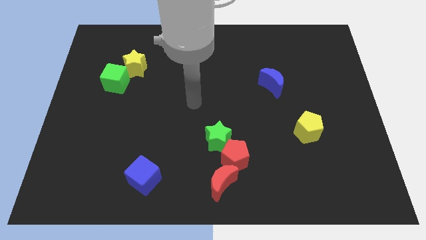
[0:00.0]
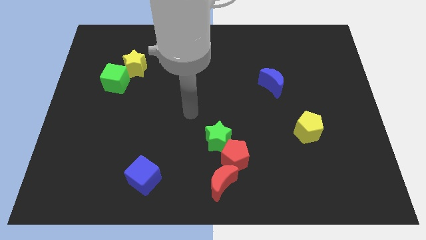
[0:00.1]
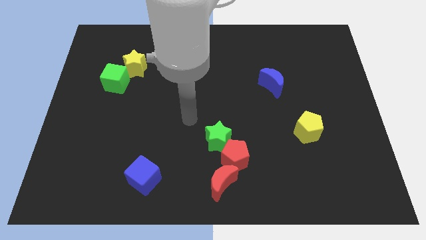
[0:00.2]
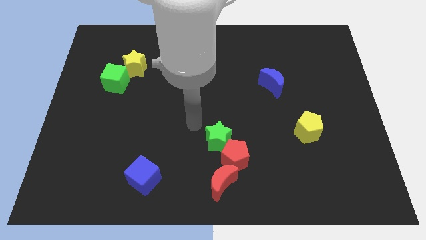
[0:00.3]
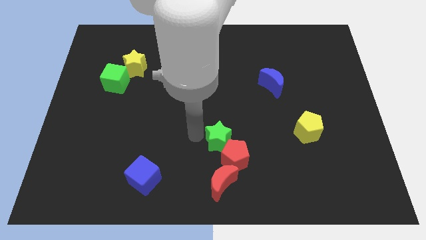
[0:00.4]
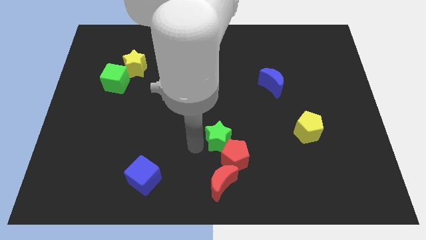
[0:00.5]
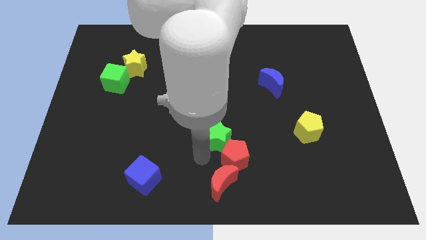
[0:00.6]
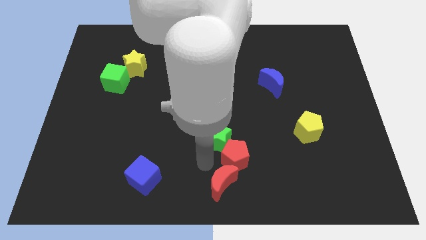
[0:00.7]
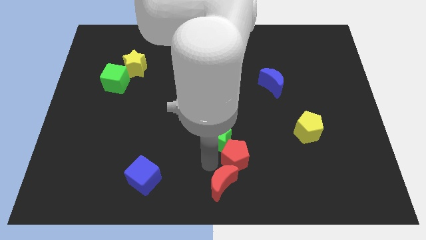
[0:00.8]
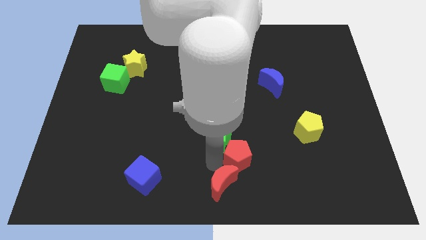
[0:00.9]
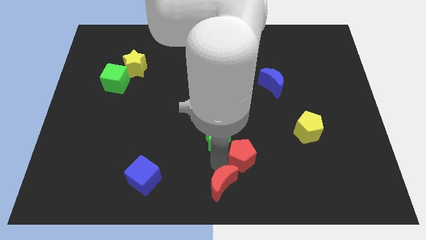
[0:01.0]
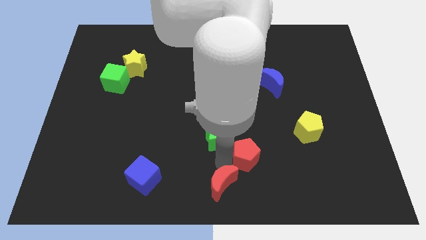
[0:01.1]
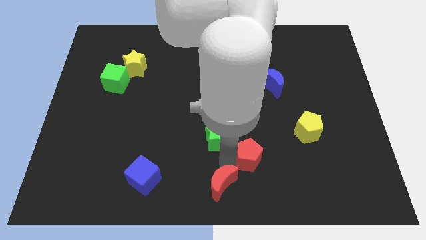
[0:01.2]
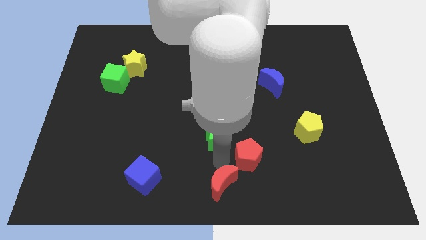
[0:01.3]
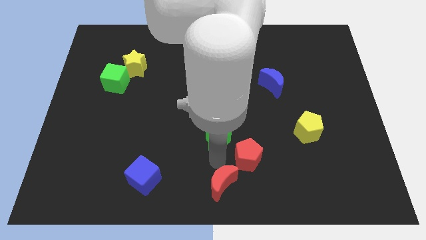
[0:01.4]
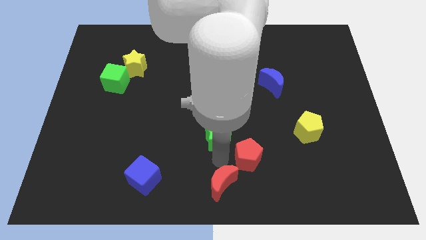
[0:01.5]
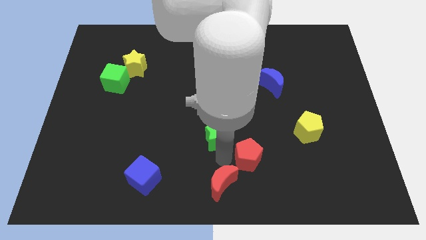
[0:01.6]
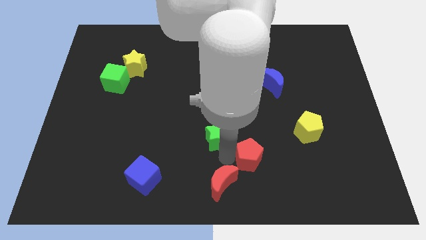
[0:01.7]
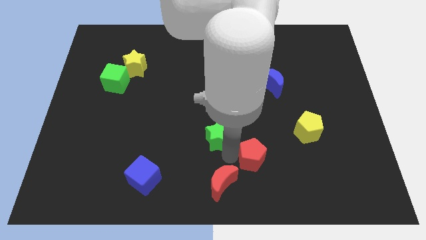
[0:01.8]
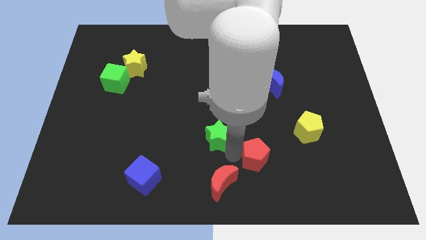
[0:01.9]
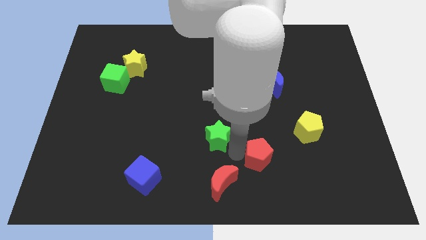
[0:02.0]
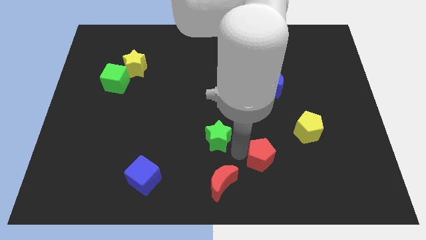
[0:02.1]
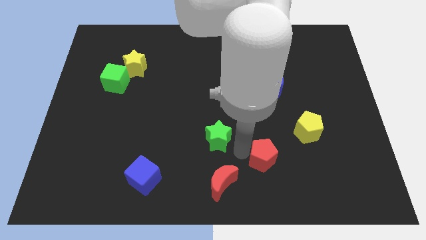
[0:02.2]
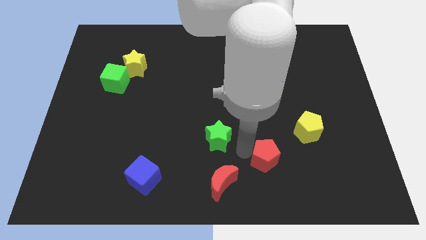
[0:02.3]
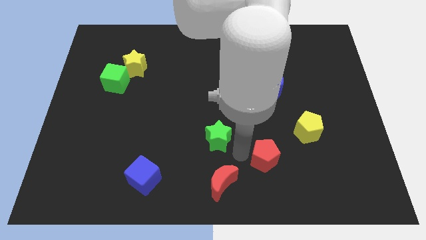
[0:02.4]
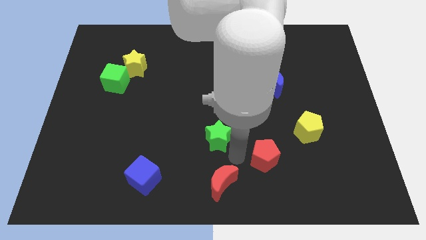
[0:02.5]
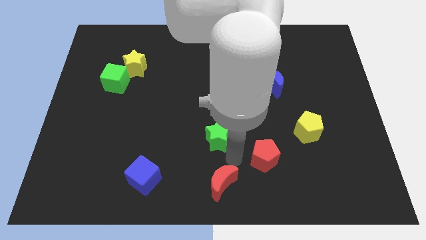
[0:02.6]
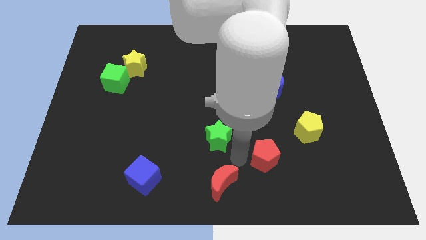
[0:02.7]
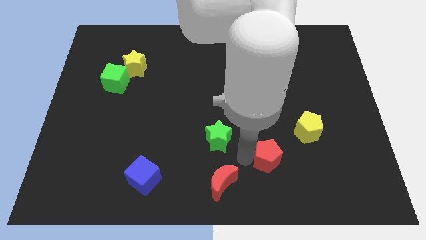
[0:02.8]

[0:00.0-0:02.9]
move the red pentagon away from the green star and red moon

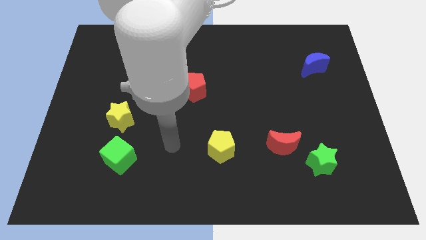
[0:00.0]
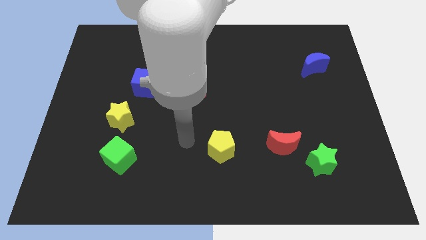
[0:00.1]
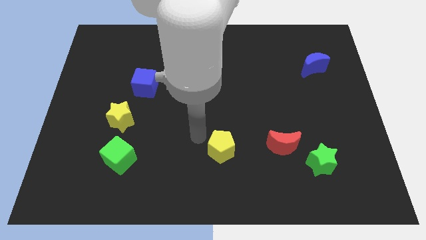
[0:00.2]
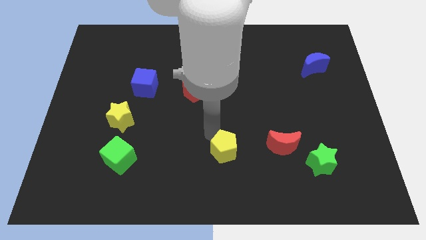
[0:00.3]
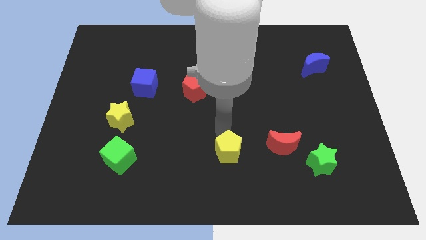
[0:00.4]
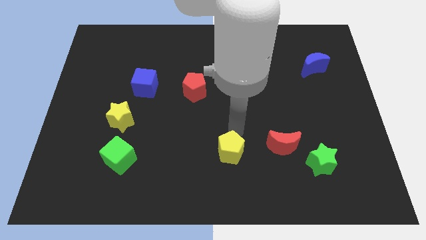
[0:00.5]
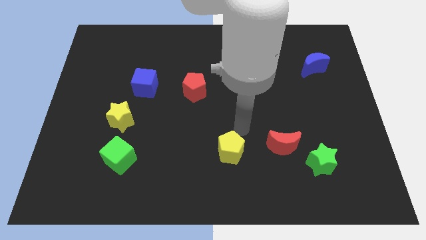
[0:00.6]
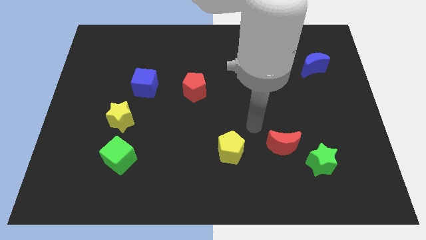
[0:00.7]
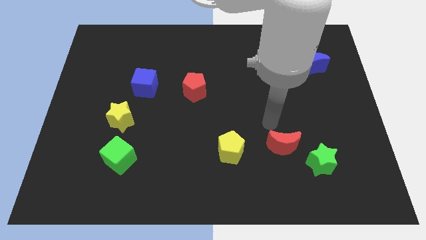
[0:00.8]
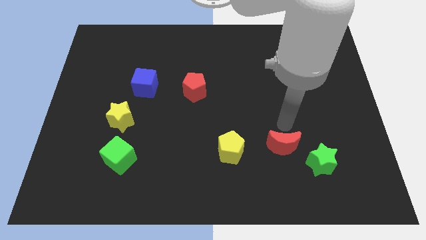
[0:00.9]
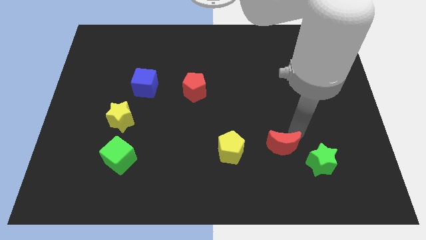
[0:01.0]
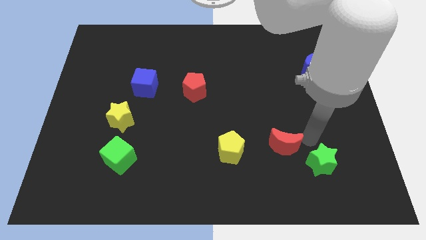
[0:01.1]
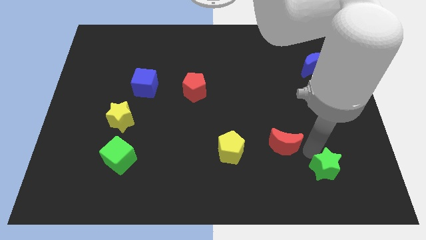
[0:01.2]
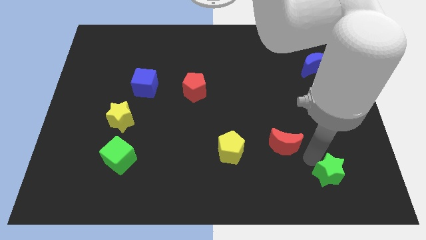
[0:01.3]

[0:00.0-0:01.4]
separate the red moon from the green star

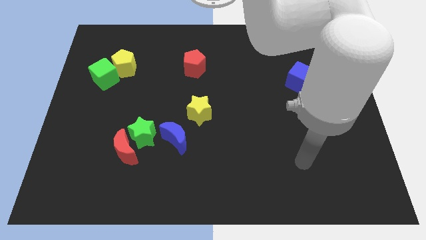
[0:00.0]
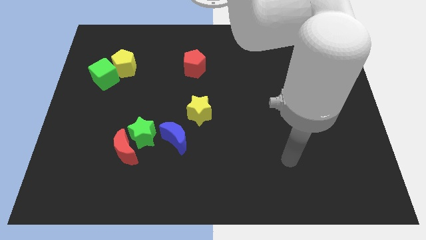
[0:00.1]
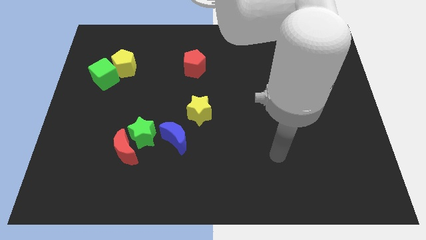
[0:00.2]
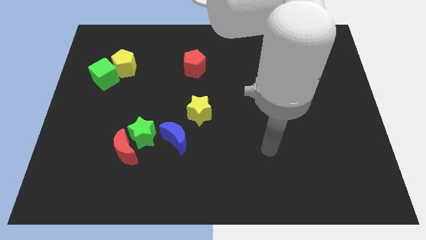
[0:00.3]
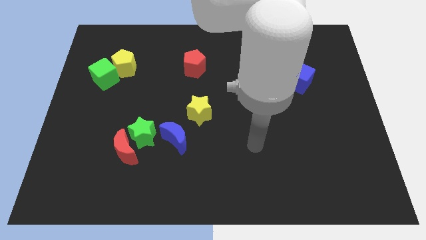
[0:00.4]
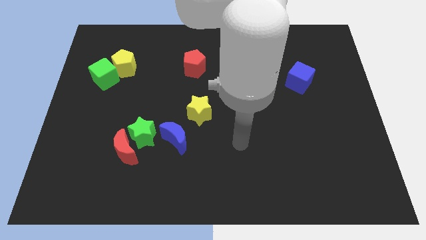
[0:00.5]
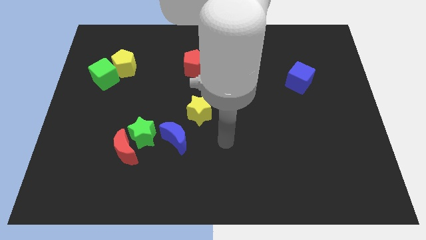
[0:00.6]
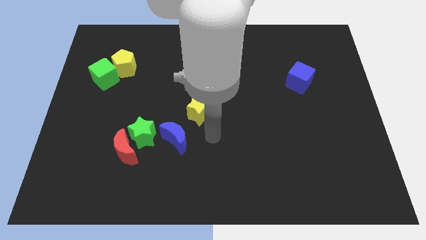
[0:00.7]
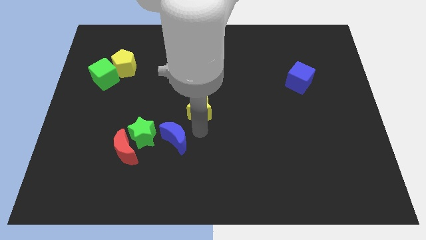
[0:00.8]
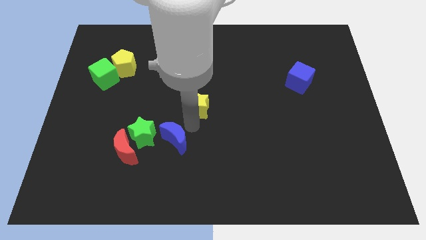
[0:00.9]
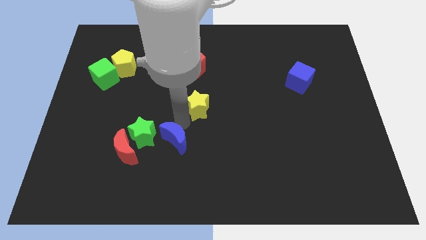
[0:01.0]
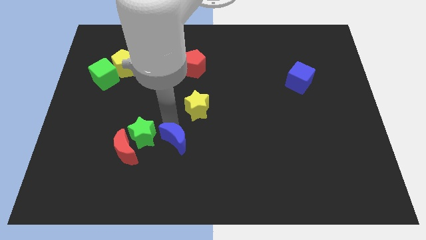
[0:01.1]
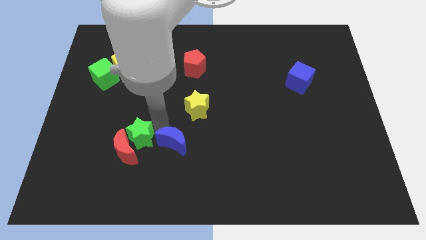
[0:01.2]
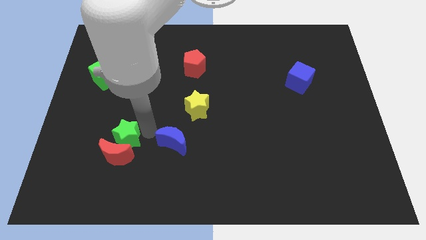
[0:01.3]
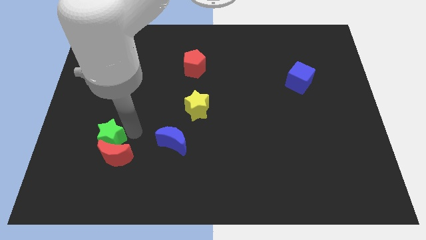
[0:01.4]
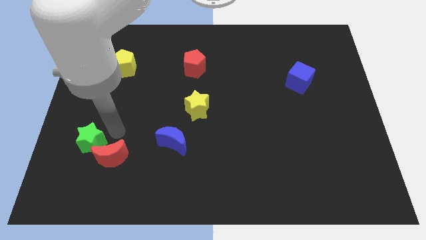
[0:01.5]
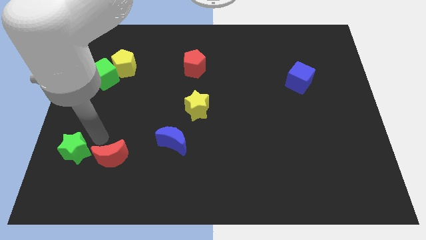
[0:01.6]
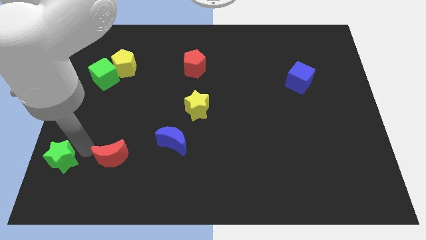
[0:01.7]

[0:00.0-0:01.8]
pull the red moon apart from the green star

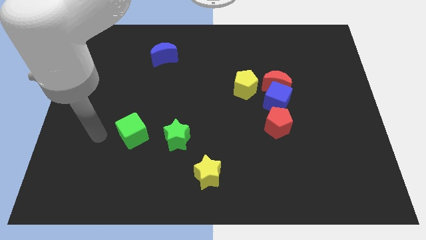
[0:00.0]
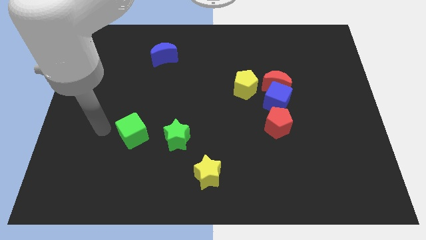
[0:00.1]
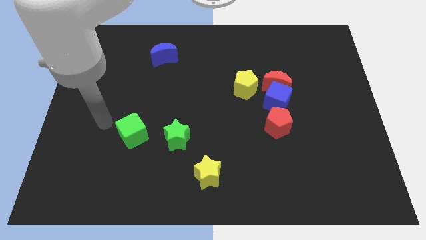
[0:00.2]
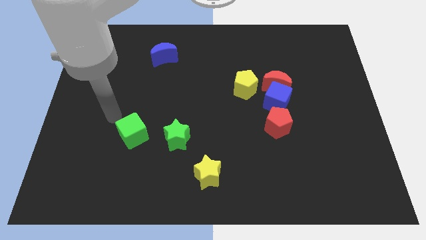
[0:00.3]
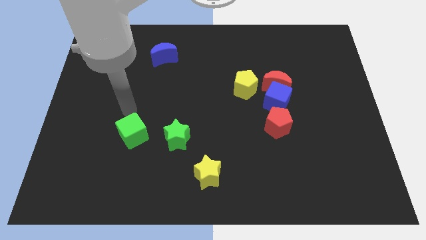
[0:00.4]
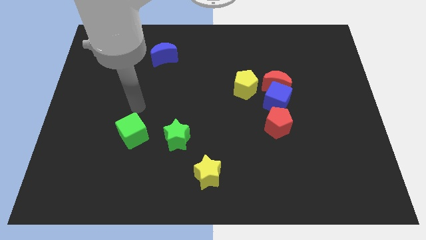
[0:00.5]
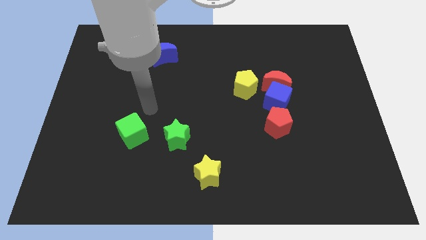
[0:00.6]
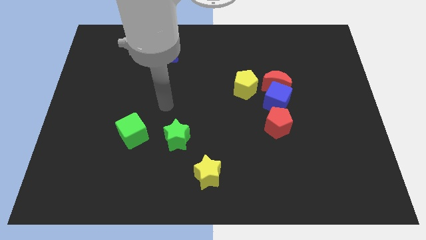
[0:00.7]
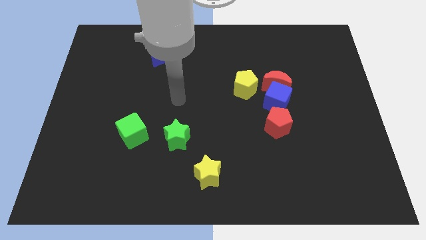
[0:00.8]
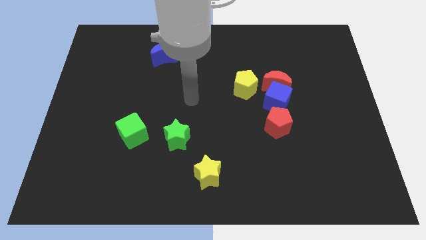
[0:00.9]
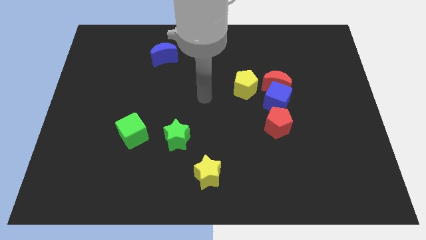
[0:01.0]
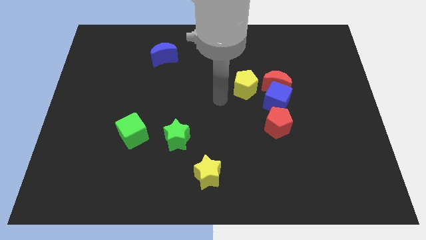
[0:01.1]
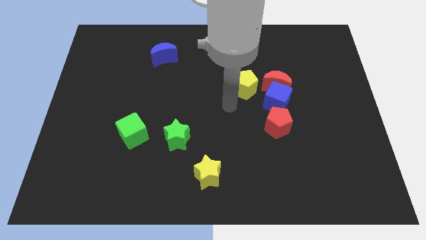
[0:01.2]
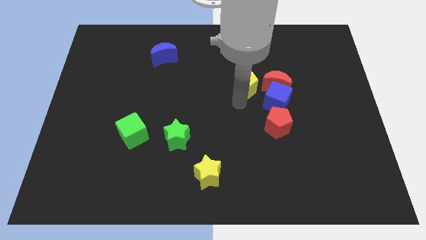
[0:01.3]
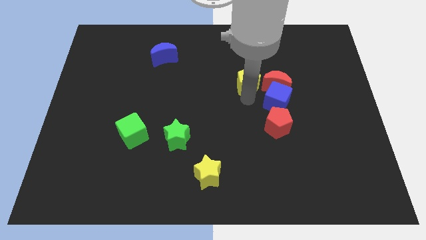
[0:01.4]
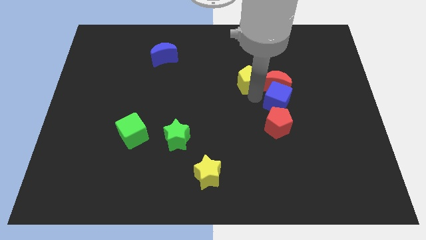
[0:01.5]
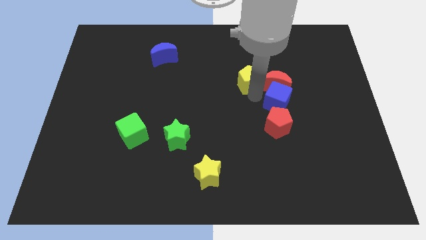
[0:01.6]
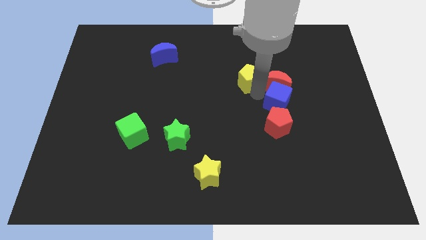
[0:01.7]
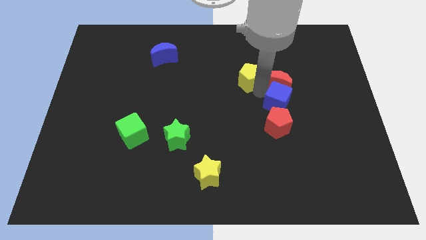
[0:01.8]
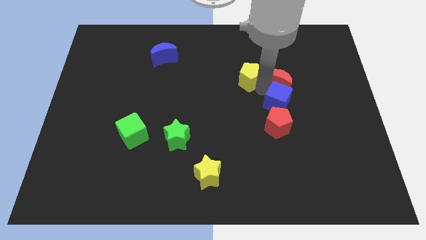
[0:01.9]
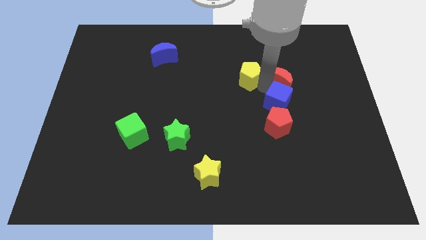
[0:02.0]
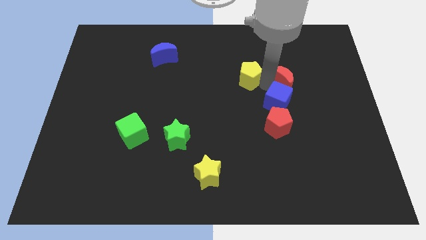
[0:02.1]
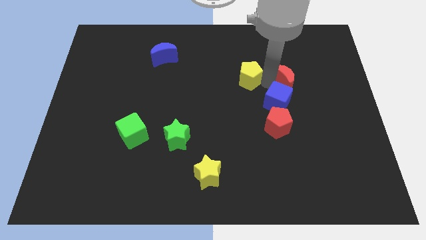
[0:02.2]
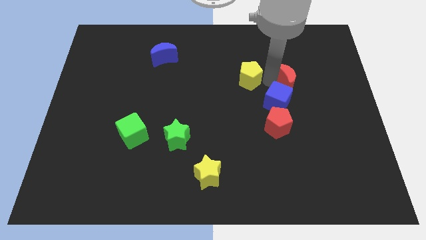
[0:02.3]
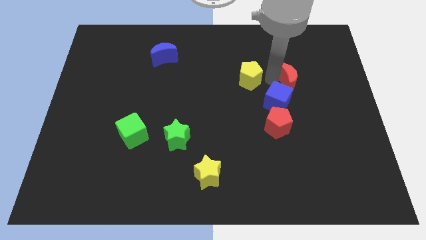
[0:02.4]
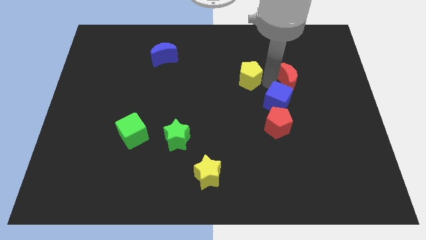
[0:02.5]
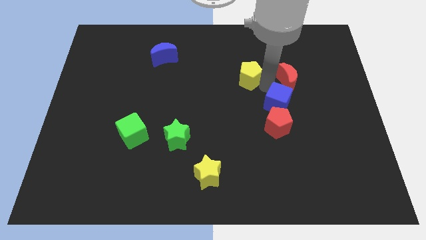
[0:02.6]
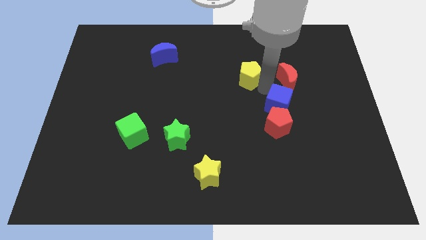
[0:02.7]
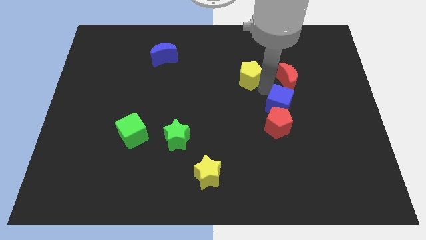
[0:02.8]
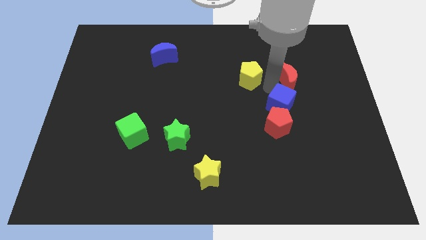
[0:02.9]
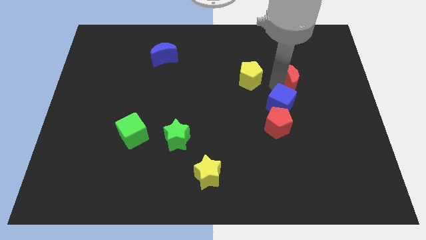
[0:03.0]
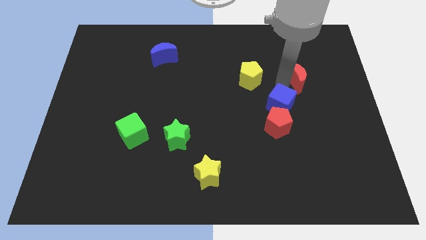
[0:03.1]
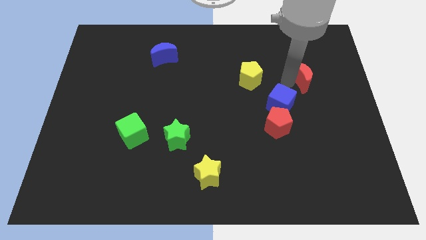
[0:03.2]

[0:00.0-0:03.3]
separate the red moon from the blue cube and yellow pentagon
